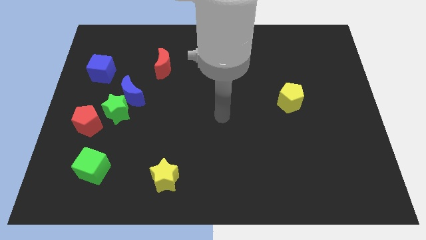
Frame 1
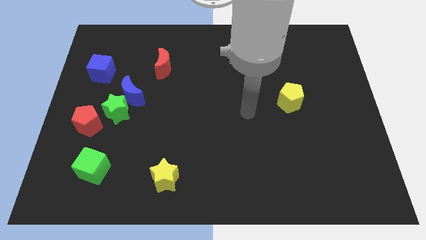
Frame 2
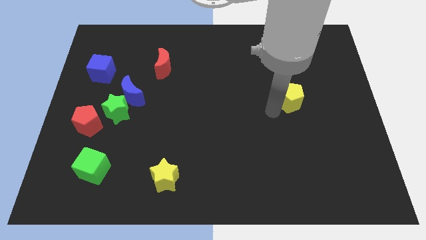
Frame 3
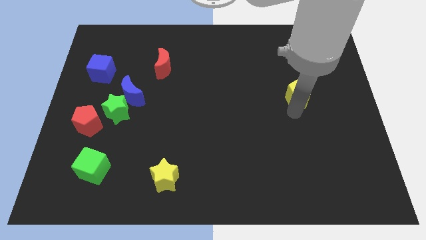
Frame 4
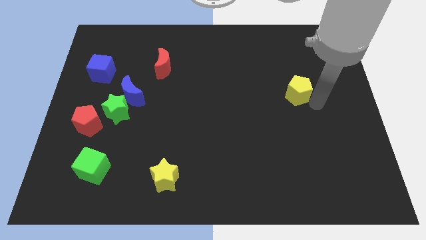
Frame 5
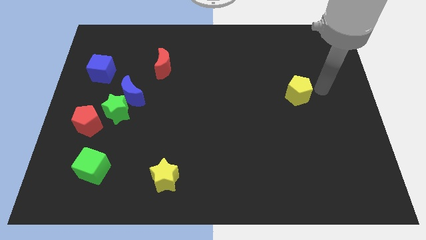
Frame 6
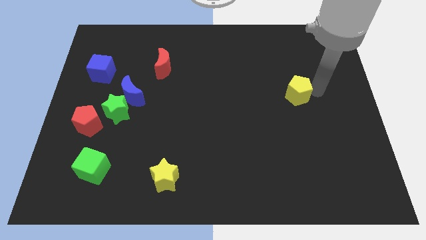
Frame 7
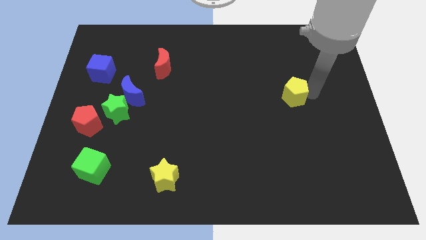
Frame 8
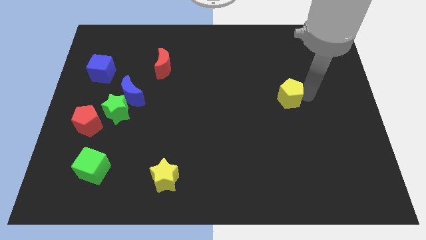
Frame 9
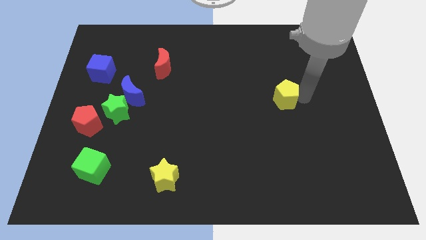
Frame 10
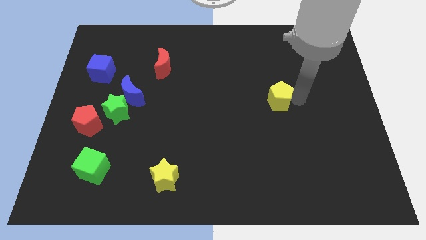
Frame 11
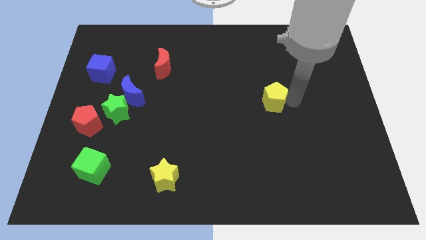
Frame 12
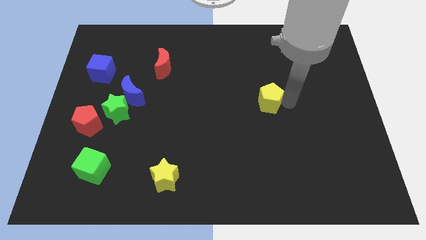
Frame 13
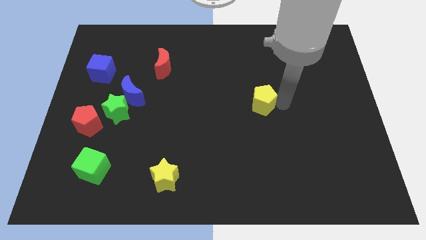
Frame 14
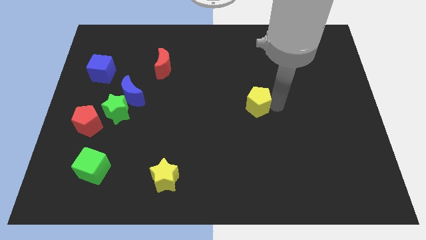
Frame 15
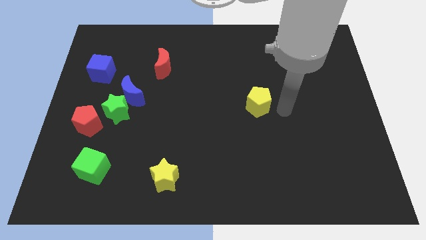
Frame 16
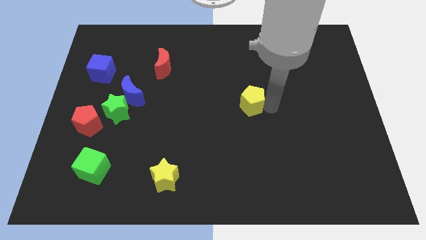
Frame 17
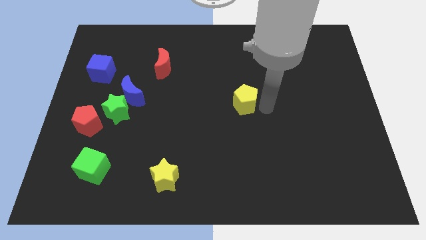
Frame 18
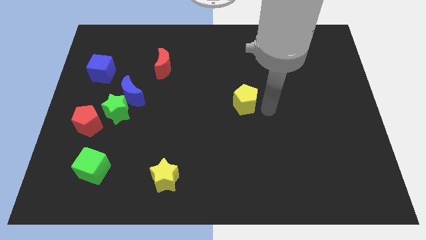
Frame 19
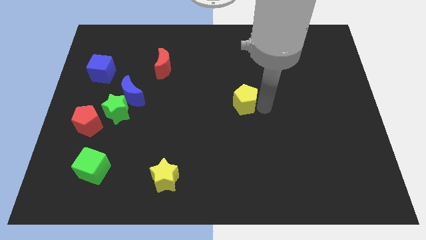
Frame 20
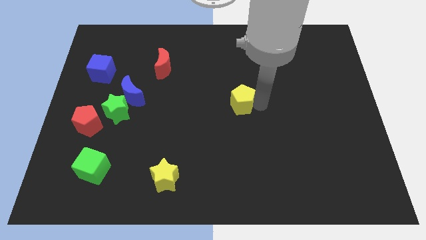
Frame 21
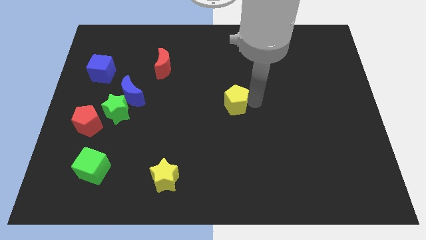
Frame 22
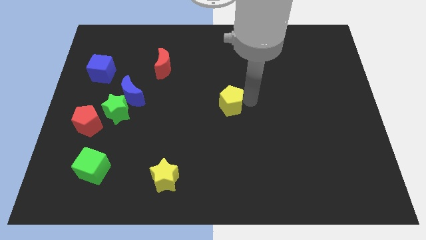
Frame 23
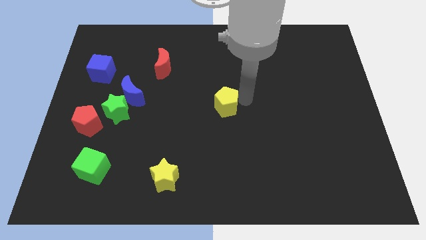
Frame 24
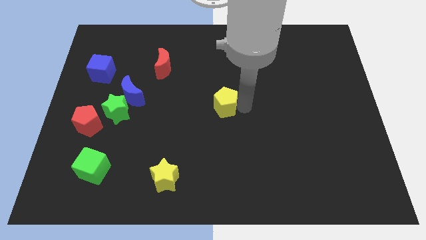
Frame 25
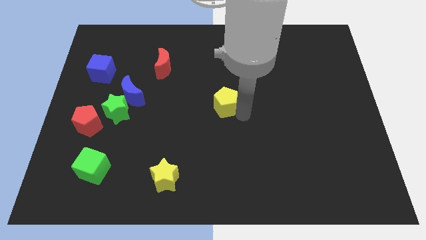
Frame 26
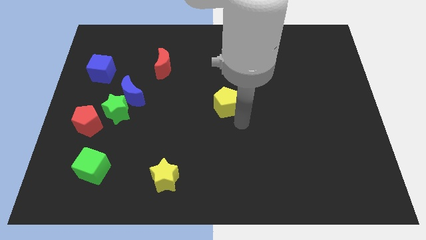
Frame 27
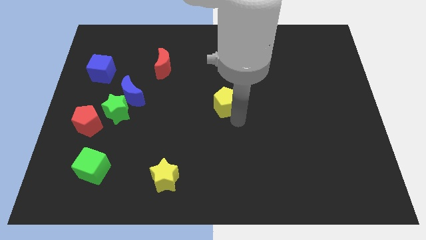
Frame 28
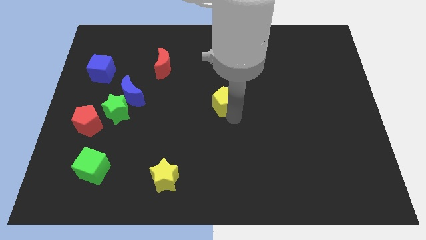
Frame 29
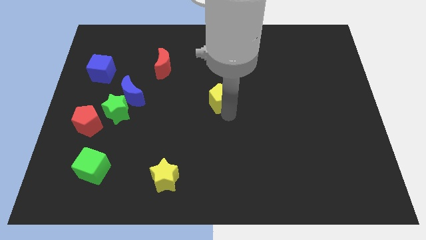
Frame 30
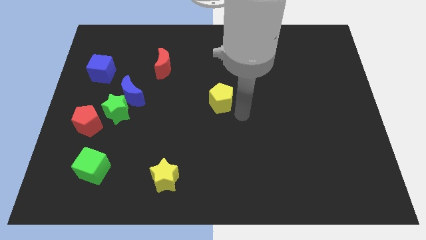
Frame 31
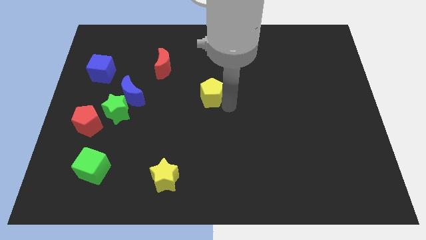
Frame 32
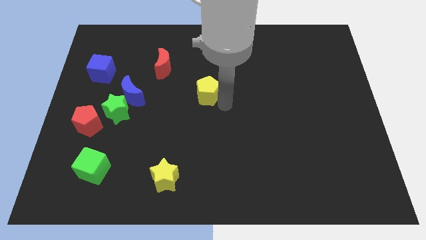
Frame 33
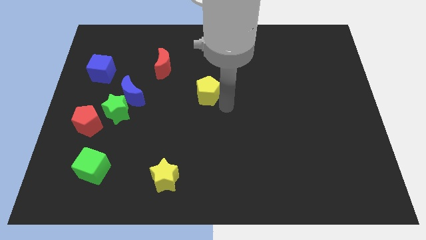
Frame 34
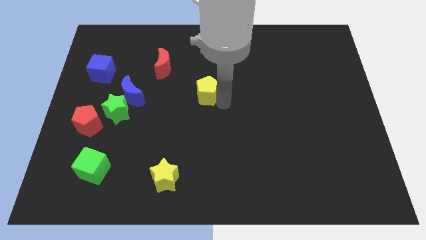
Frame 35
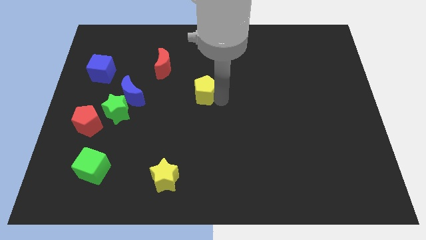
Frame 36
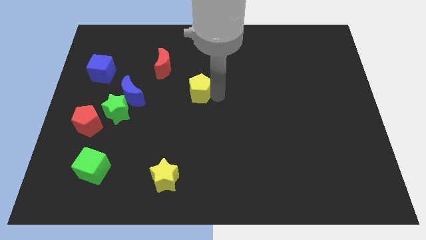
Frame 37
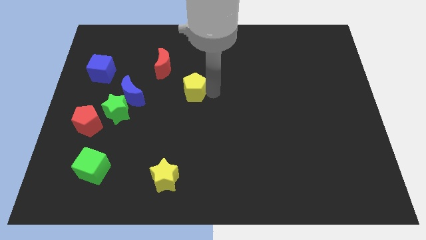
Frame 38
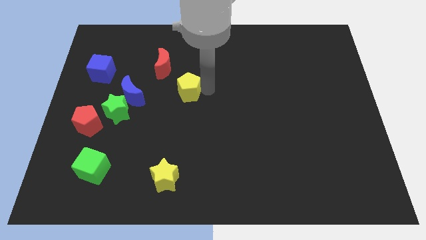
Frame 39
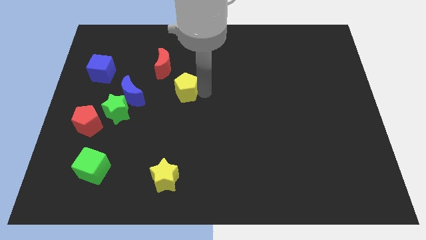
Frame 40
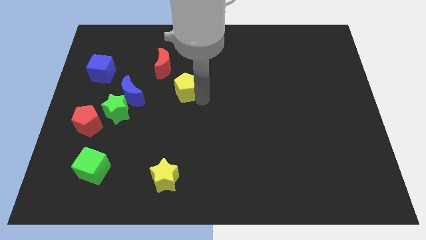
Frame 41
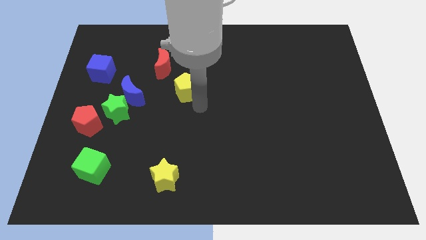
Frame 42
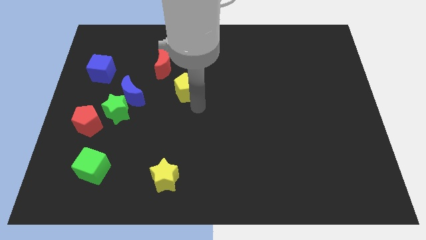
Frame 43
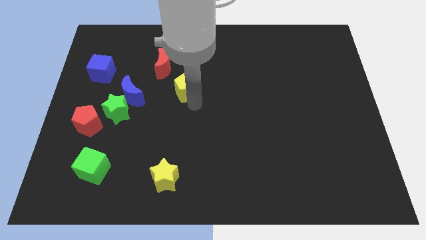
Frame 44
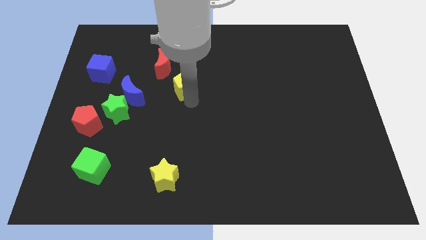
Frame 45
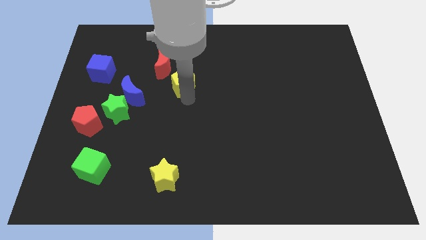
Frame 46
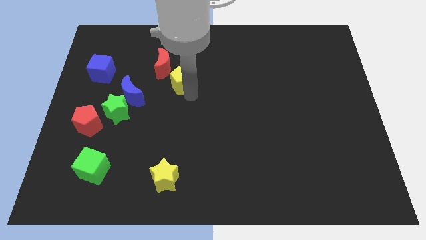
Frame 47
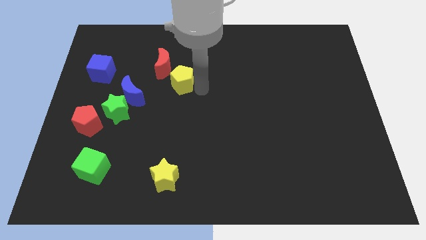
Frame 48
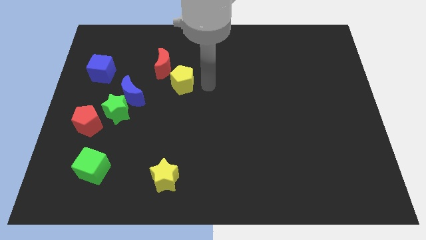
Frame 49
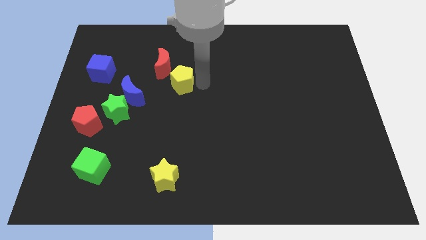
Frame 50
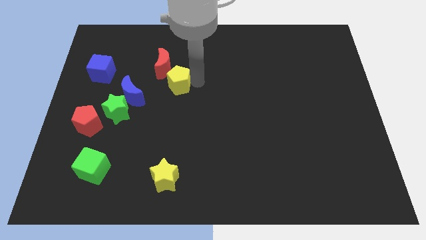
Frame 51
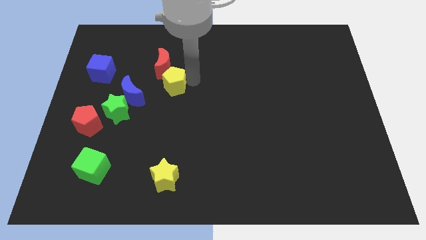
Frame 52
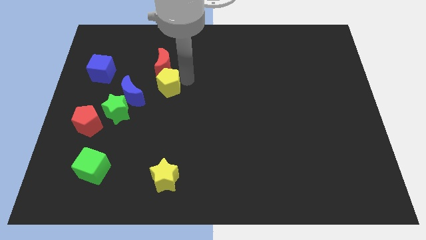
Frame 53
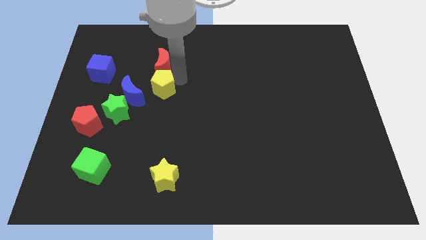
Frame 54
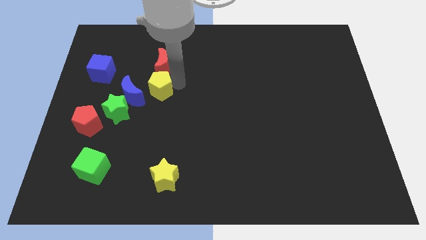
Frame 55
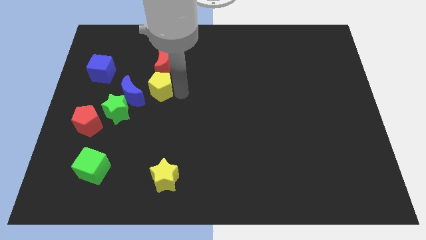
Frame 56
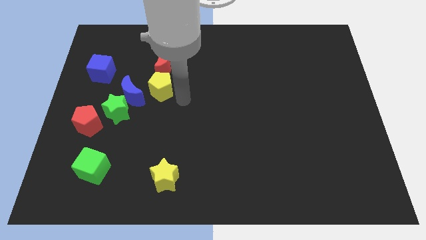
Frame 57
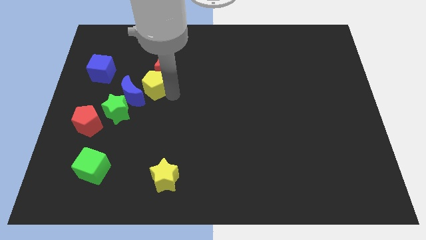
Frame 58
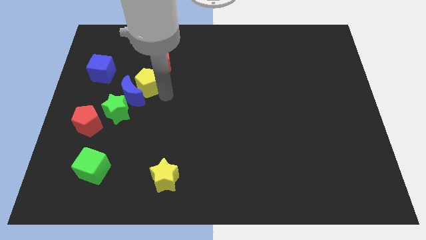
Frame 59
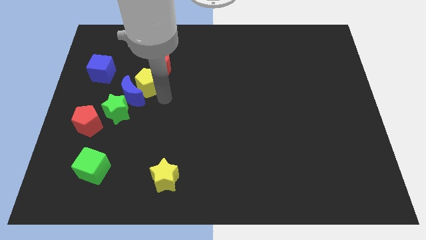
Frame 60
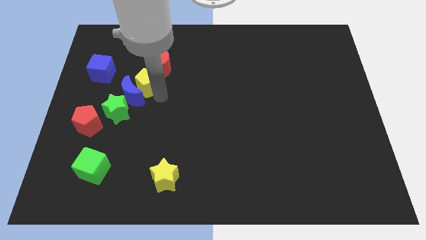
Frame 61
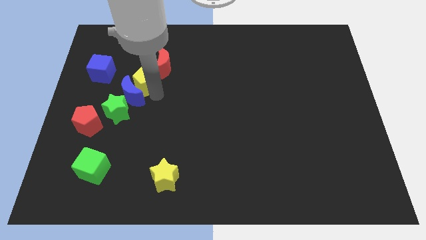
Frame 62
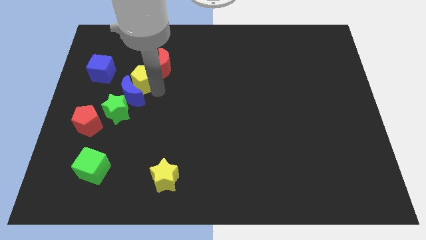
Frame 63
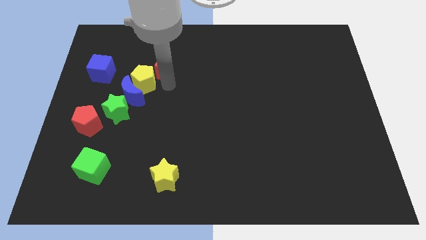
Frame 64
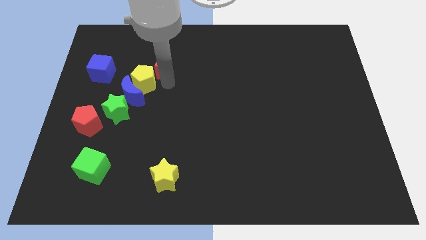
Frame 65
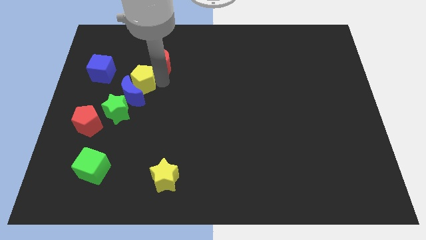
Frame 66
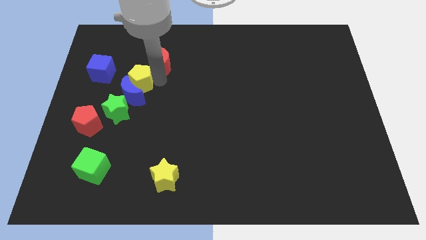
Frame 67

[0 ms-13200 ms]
push the yellow pentagon diagonally up and to the left of the blue moon

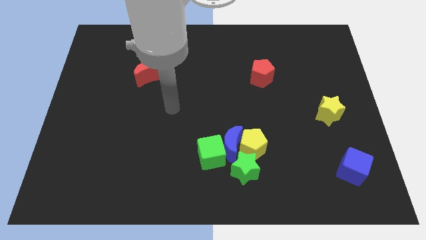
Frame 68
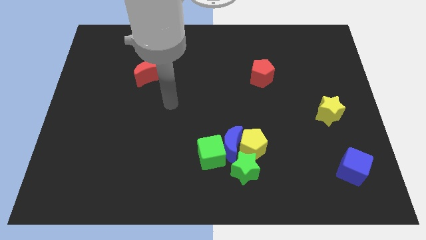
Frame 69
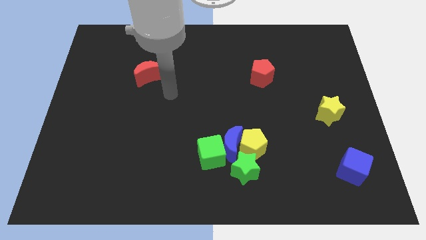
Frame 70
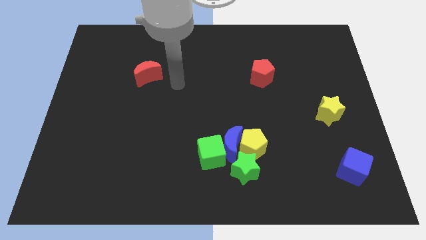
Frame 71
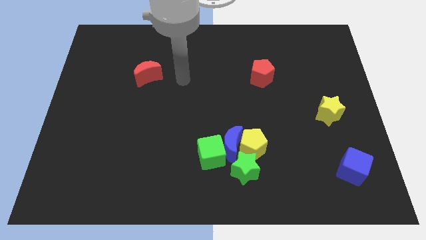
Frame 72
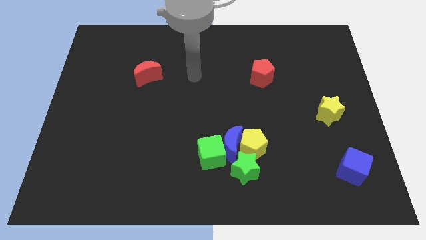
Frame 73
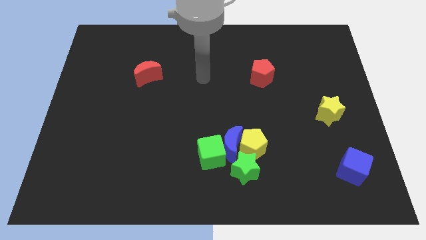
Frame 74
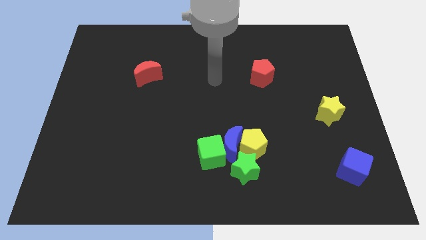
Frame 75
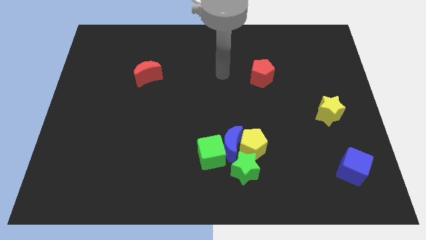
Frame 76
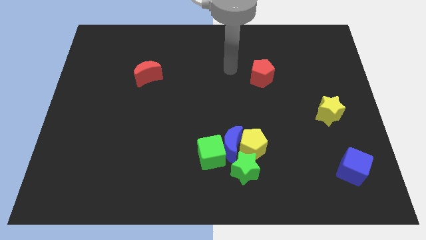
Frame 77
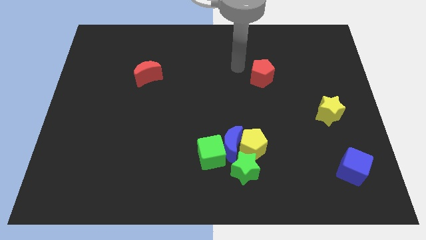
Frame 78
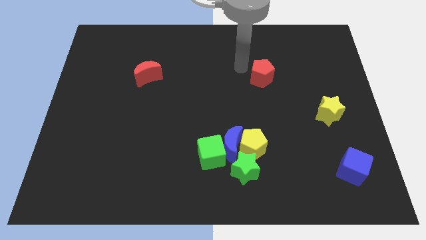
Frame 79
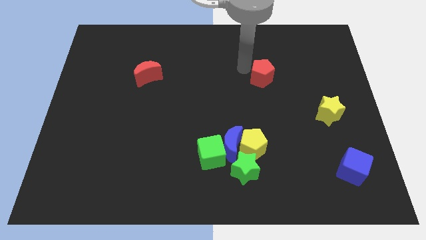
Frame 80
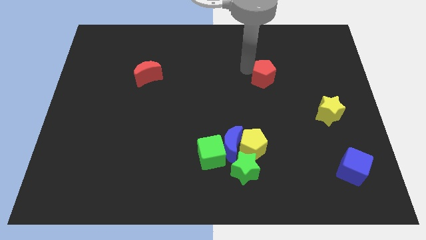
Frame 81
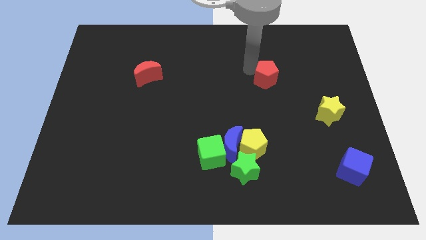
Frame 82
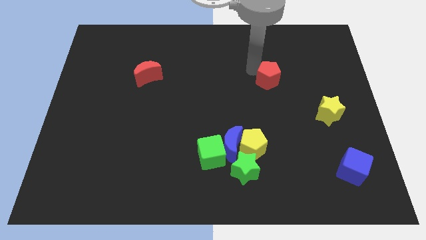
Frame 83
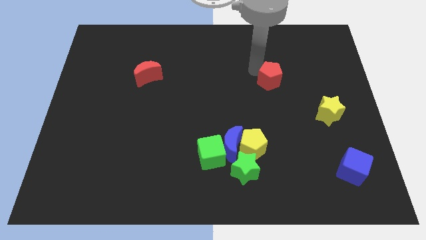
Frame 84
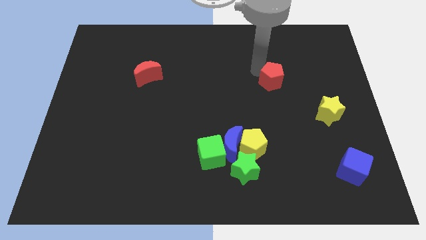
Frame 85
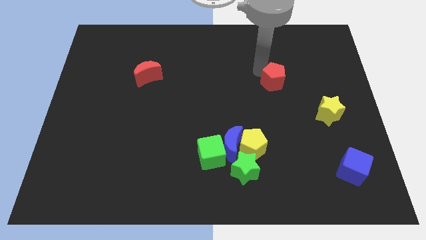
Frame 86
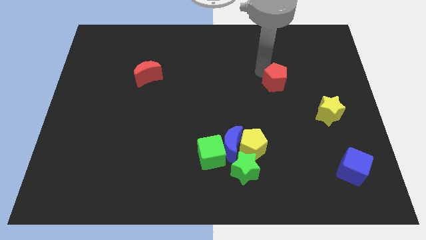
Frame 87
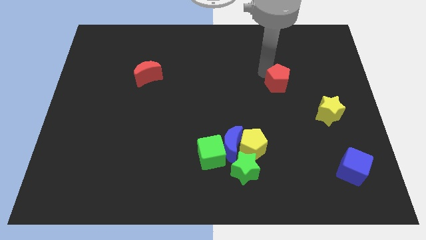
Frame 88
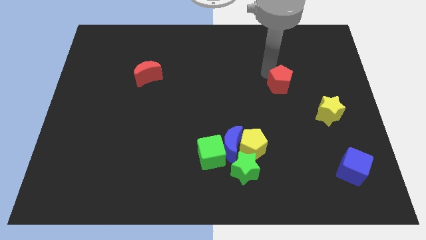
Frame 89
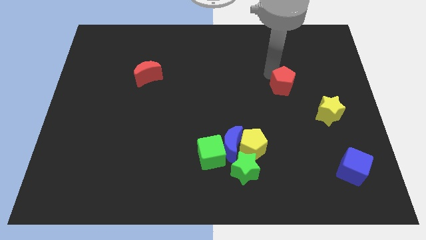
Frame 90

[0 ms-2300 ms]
push the red pentagon to the top left side of the yellow star

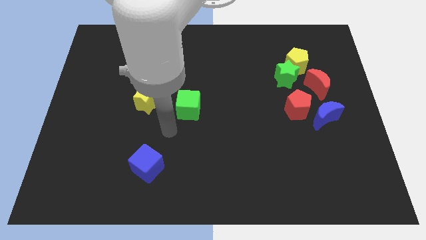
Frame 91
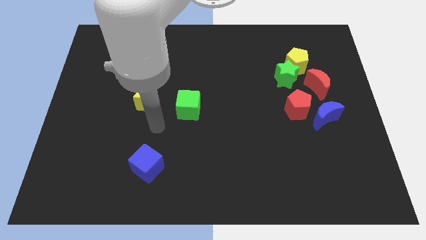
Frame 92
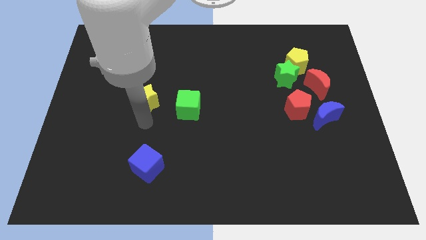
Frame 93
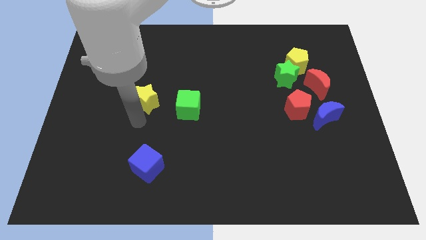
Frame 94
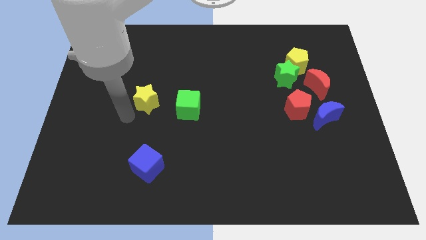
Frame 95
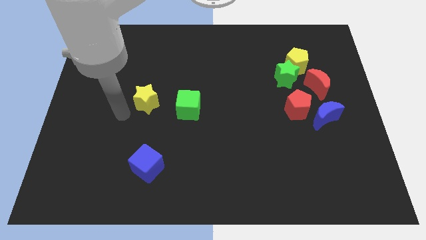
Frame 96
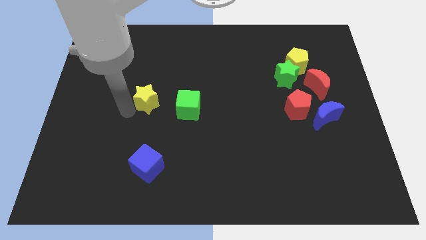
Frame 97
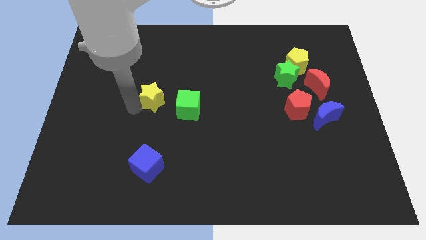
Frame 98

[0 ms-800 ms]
move the yellow star to the top left side of the green cube
